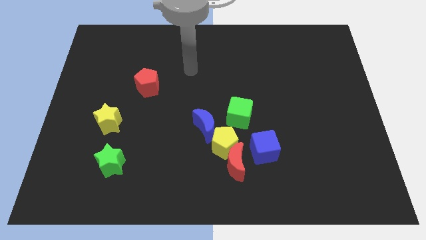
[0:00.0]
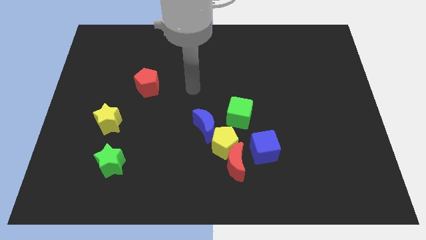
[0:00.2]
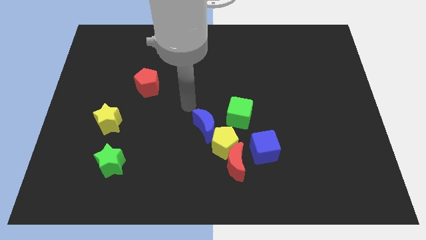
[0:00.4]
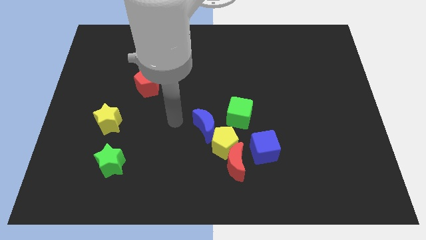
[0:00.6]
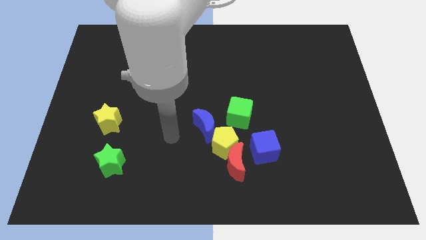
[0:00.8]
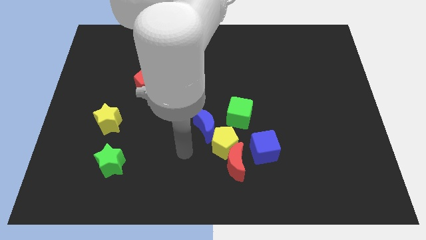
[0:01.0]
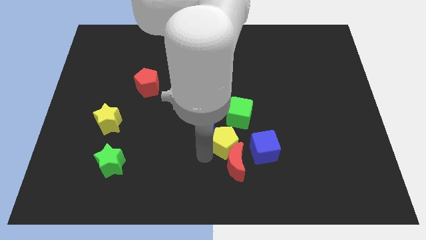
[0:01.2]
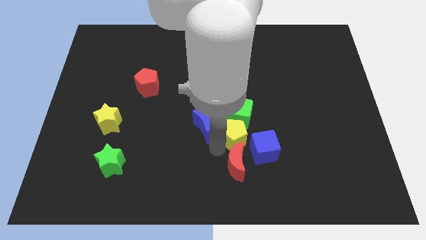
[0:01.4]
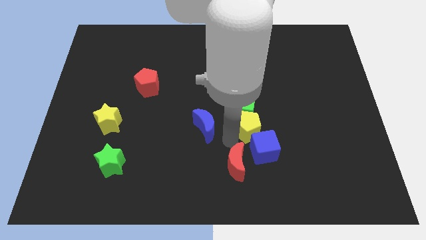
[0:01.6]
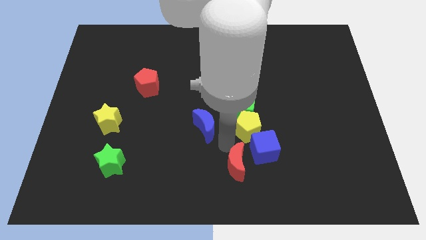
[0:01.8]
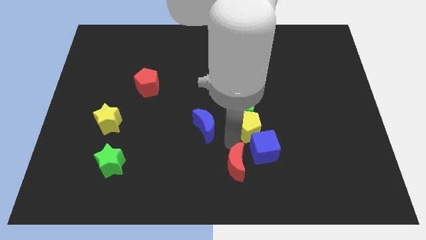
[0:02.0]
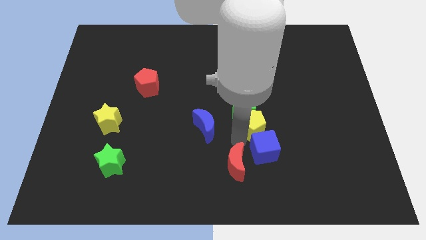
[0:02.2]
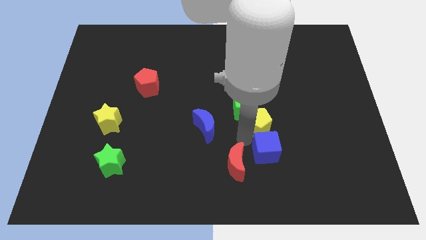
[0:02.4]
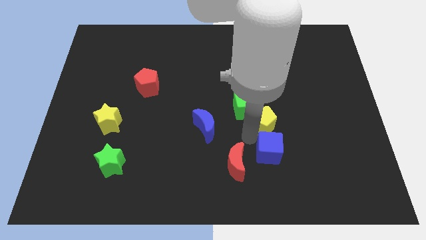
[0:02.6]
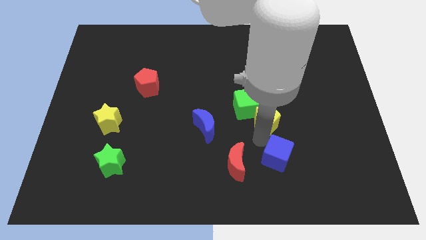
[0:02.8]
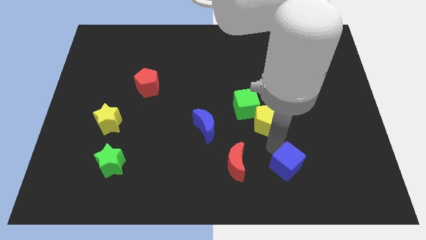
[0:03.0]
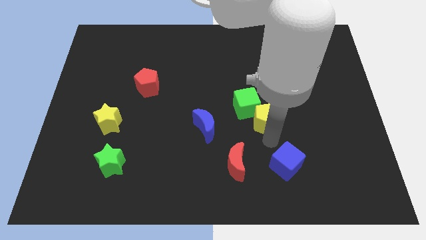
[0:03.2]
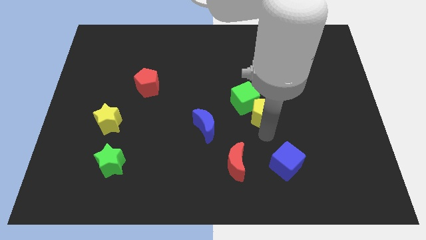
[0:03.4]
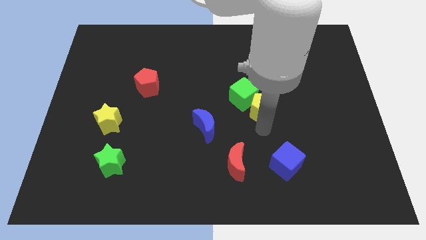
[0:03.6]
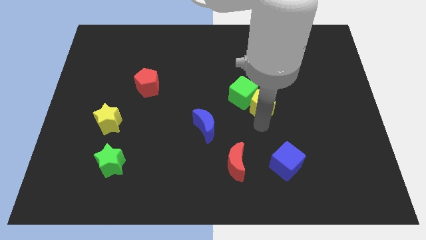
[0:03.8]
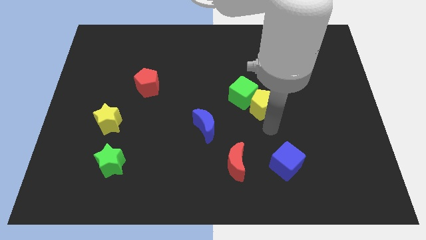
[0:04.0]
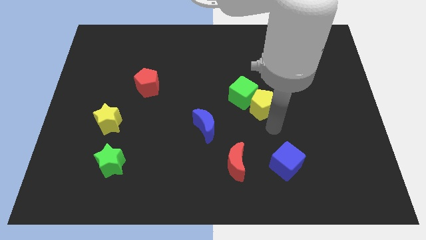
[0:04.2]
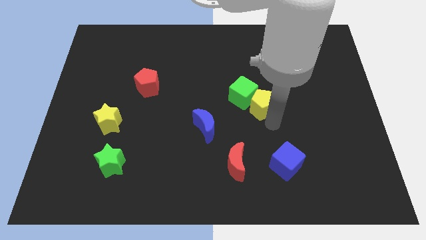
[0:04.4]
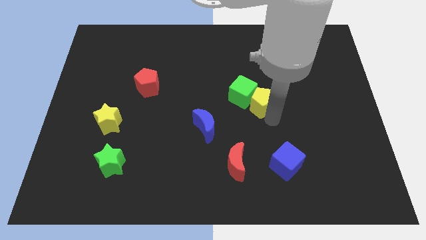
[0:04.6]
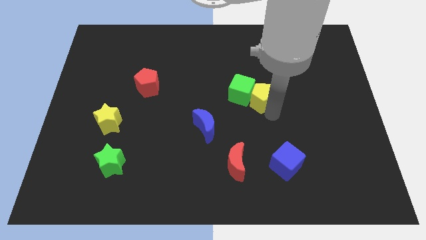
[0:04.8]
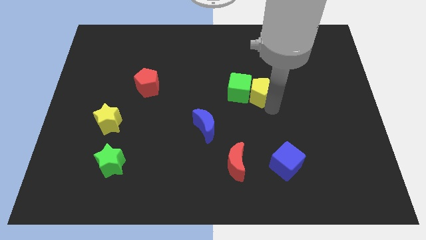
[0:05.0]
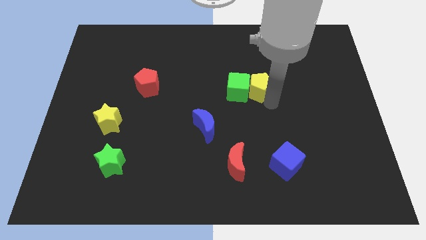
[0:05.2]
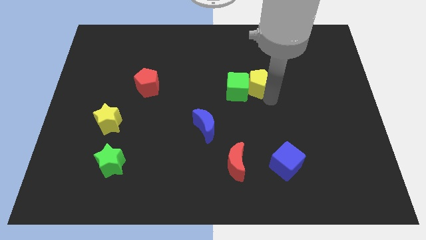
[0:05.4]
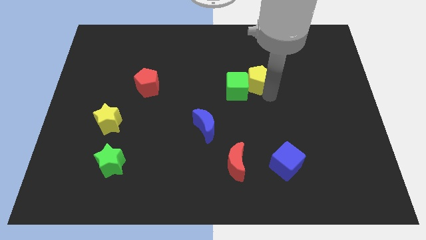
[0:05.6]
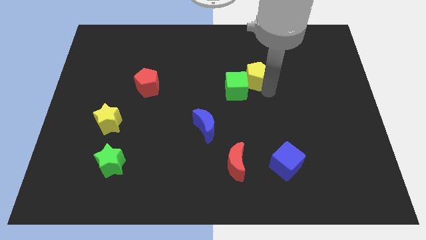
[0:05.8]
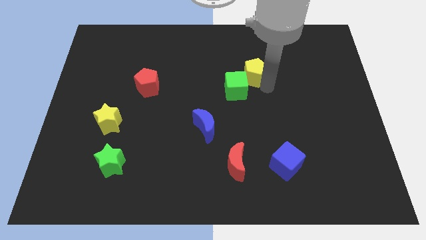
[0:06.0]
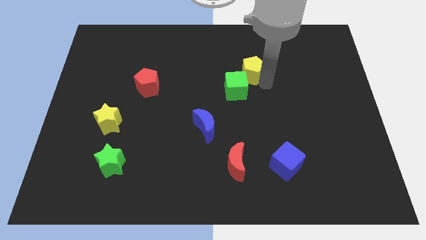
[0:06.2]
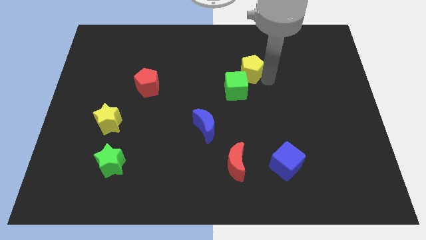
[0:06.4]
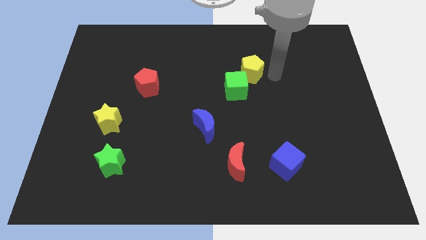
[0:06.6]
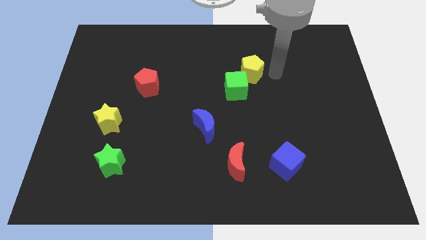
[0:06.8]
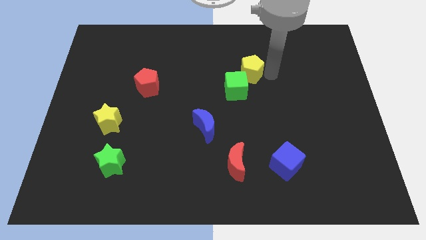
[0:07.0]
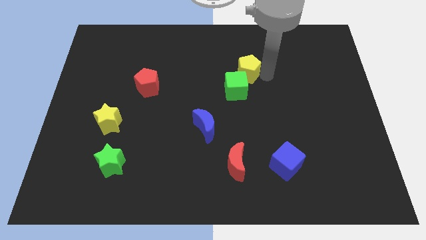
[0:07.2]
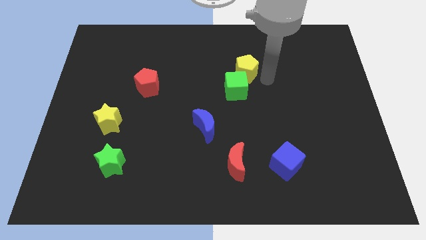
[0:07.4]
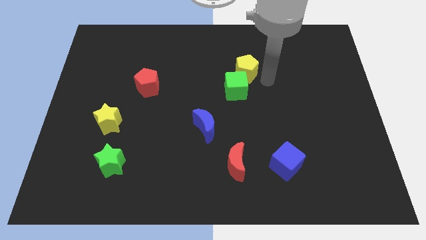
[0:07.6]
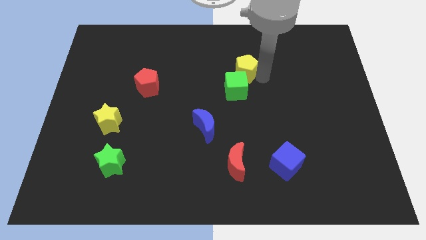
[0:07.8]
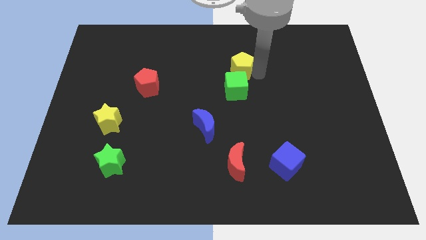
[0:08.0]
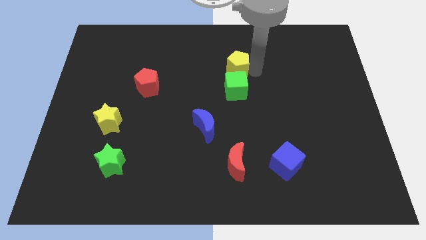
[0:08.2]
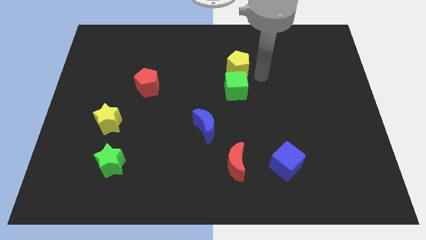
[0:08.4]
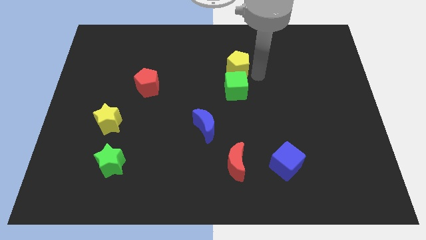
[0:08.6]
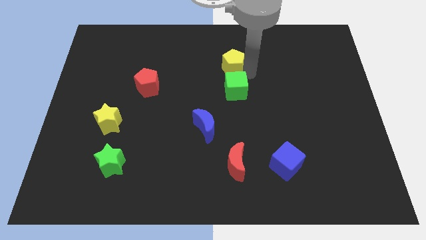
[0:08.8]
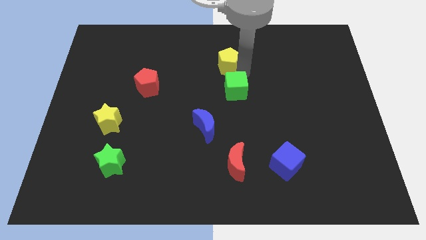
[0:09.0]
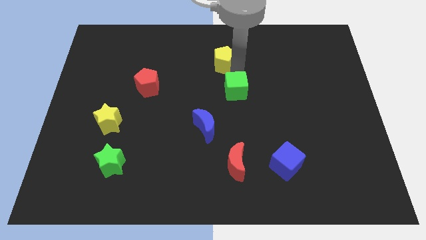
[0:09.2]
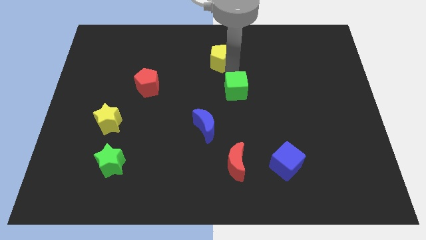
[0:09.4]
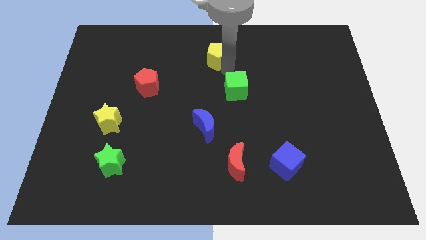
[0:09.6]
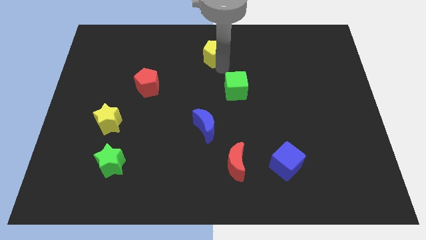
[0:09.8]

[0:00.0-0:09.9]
put the yellow pentagon to the towards your base

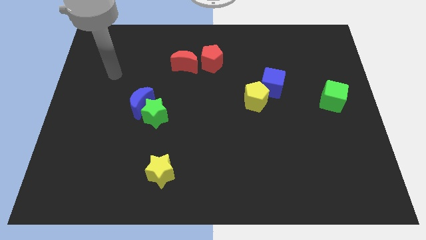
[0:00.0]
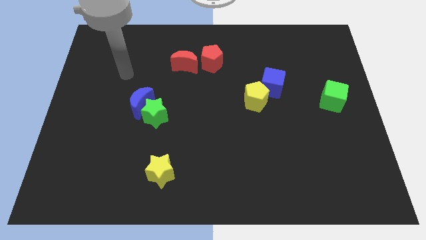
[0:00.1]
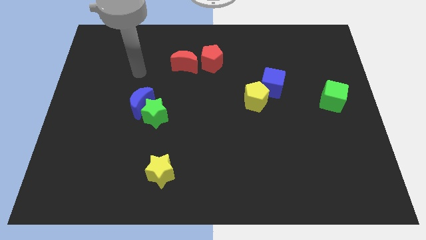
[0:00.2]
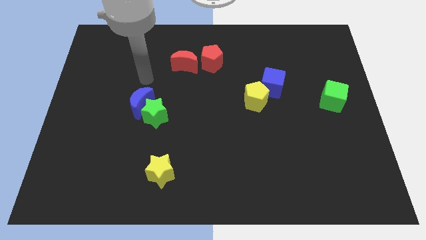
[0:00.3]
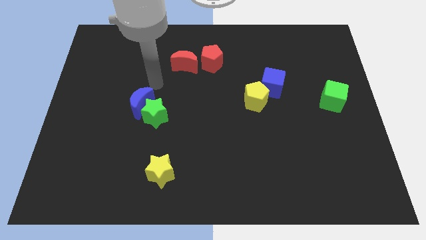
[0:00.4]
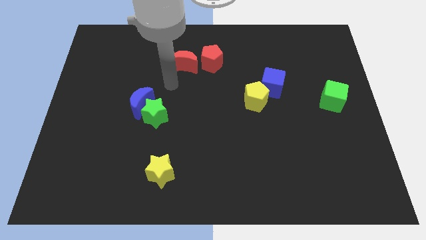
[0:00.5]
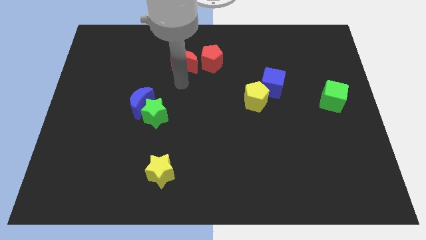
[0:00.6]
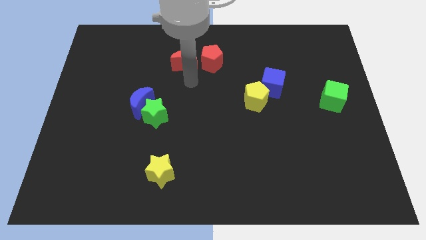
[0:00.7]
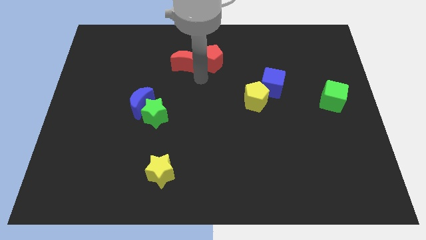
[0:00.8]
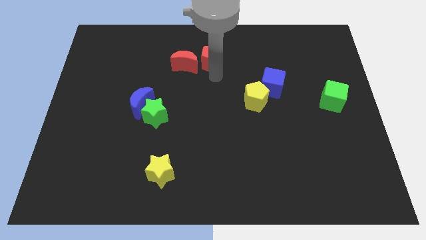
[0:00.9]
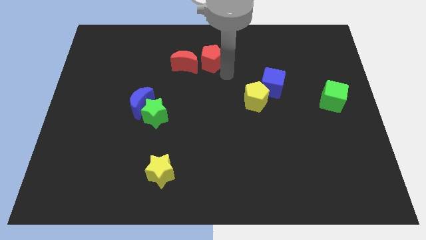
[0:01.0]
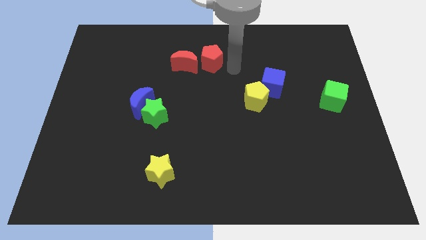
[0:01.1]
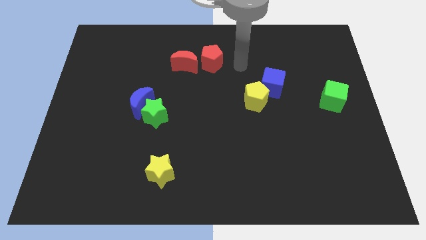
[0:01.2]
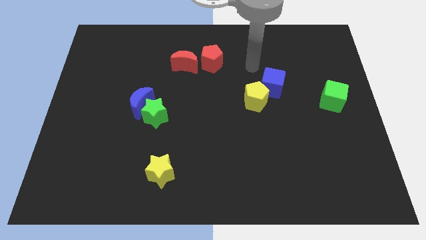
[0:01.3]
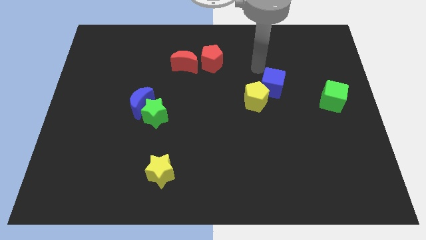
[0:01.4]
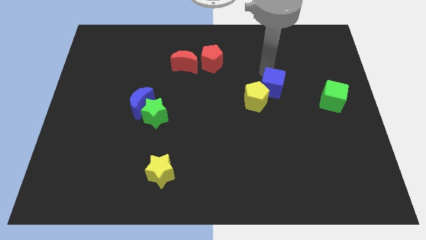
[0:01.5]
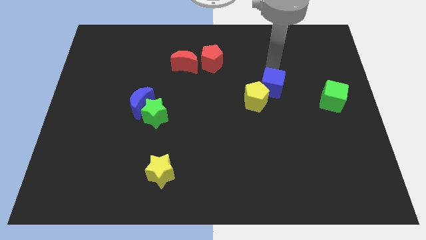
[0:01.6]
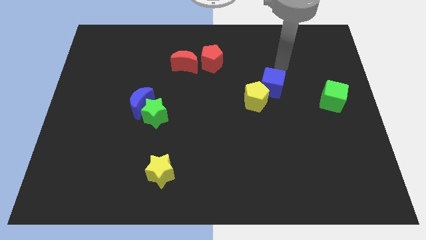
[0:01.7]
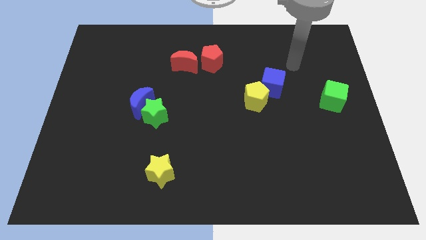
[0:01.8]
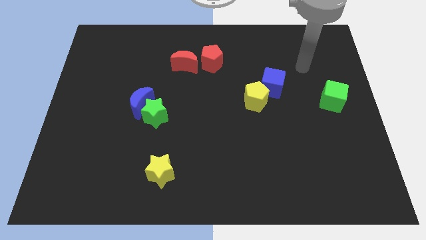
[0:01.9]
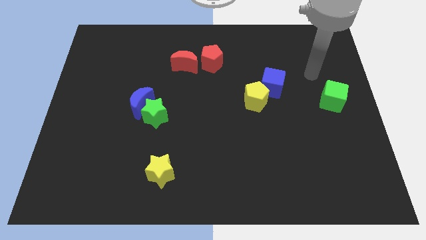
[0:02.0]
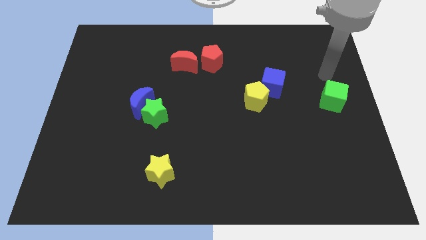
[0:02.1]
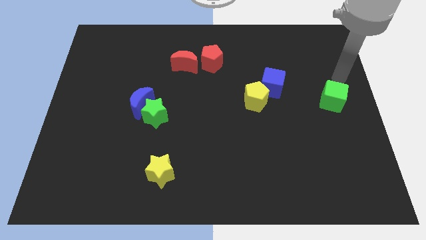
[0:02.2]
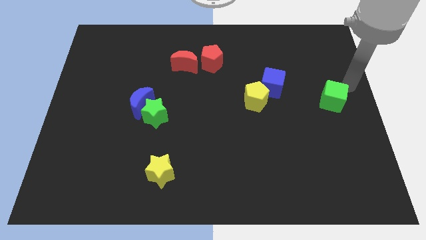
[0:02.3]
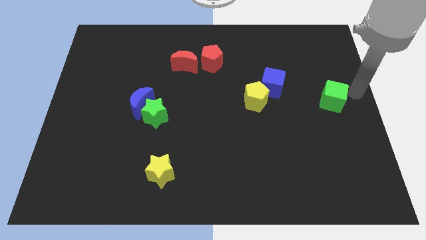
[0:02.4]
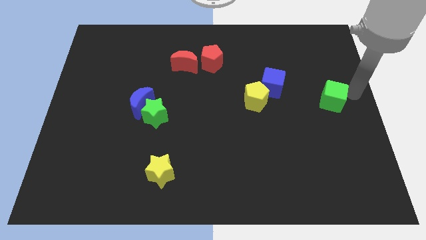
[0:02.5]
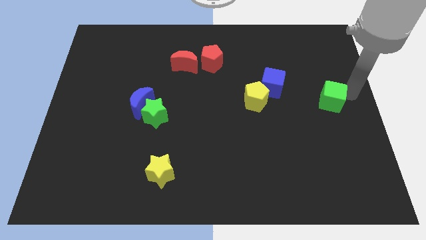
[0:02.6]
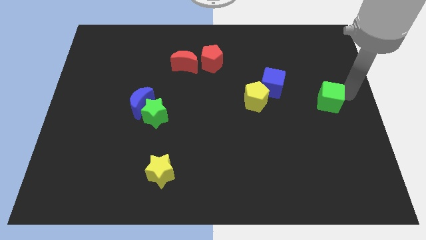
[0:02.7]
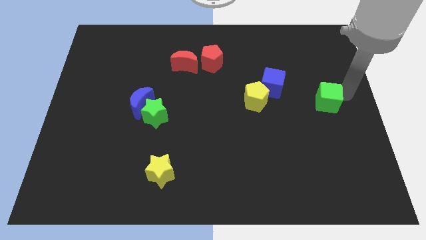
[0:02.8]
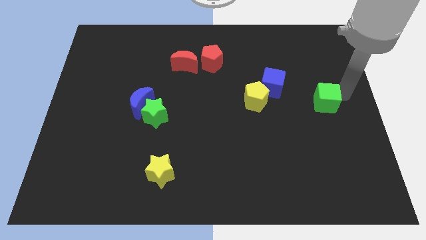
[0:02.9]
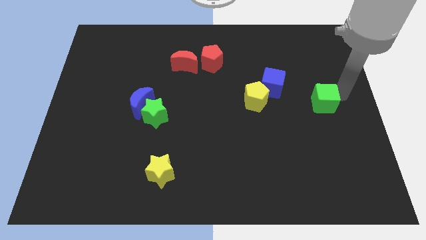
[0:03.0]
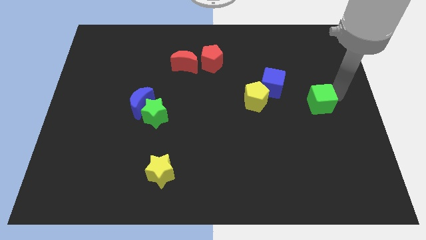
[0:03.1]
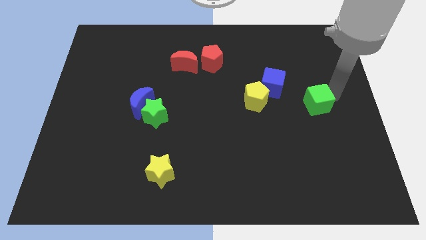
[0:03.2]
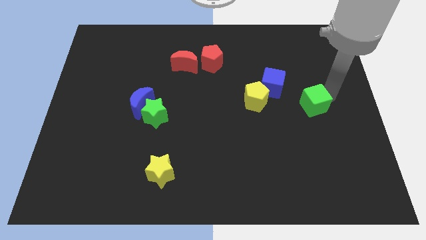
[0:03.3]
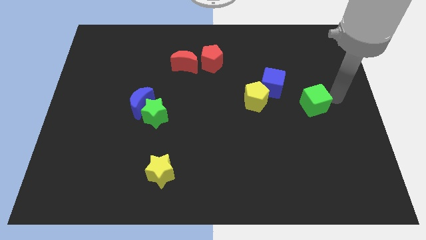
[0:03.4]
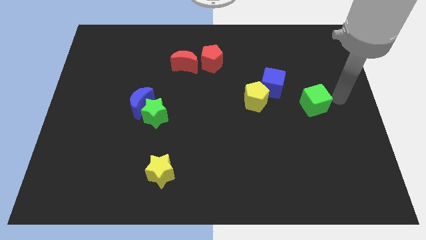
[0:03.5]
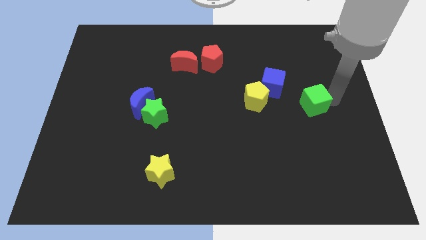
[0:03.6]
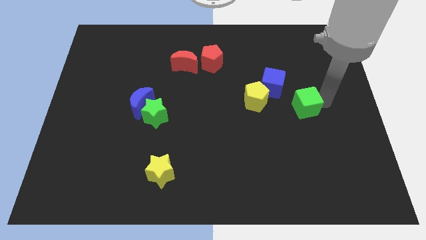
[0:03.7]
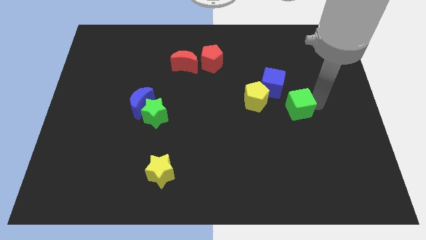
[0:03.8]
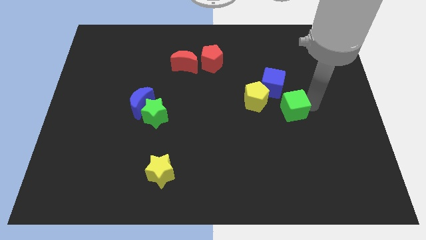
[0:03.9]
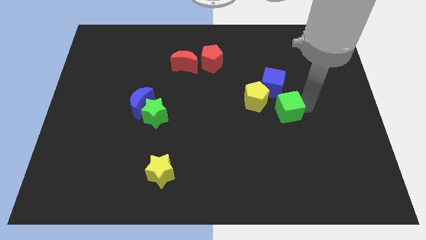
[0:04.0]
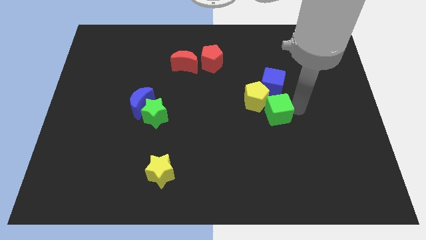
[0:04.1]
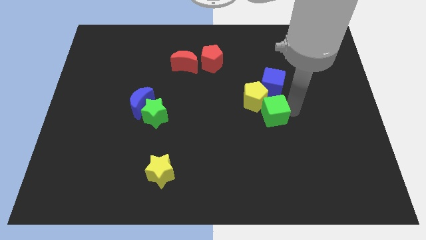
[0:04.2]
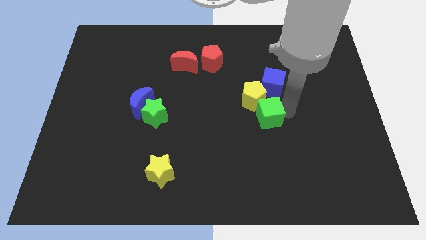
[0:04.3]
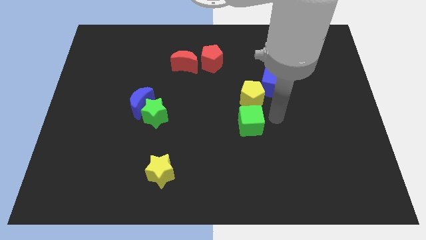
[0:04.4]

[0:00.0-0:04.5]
move the green cube to the center of the board
